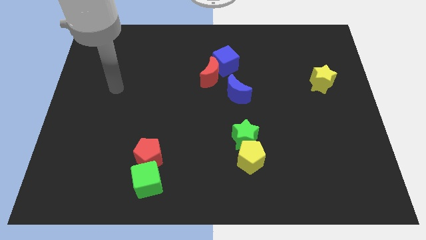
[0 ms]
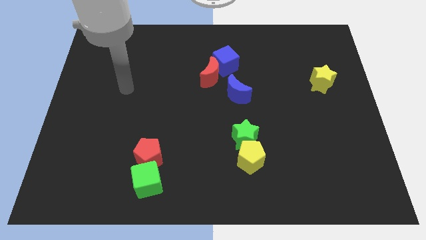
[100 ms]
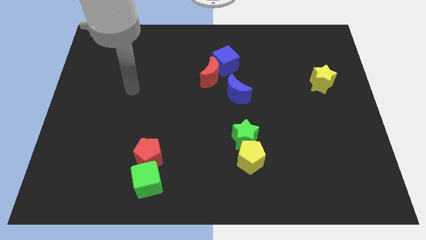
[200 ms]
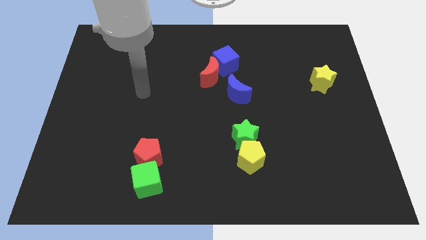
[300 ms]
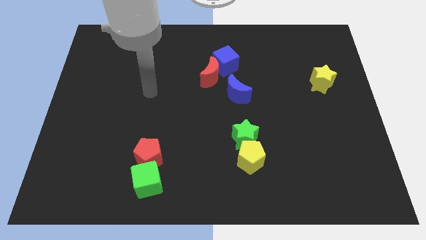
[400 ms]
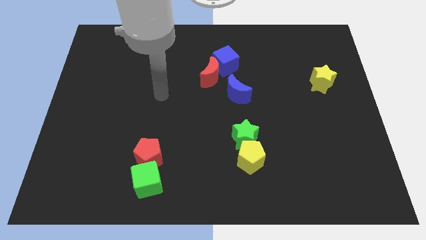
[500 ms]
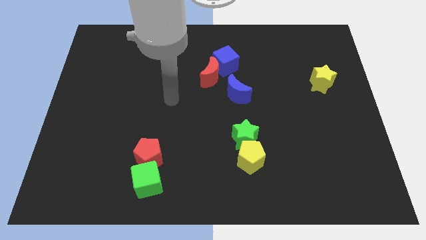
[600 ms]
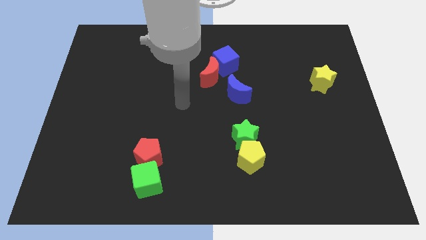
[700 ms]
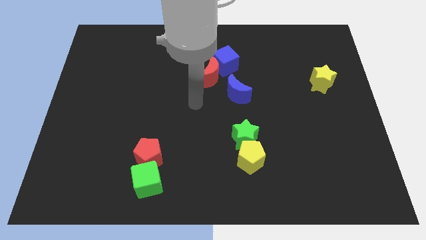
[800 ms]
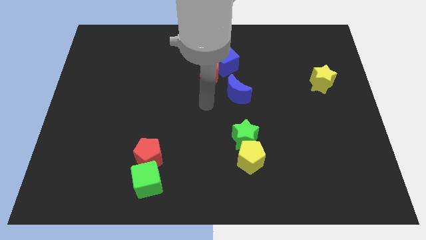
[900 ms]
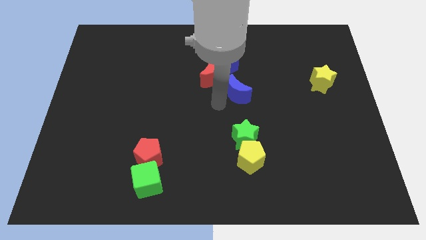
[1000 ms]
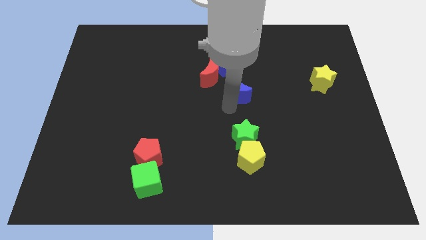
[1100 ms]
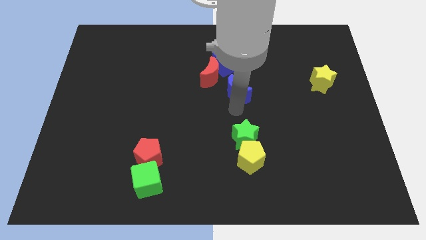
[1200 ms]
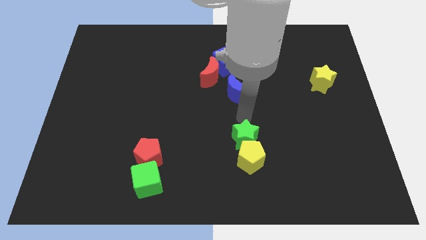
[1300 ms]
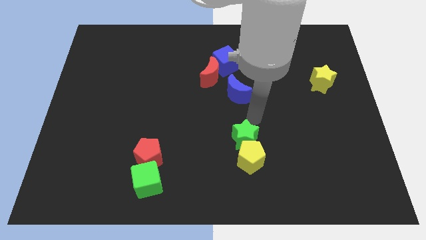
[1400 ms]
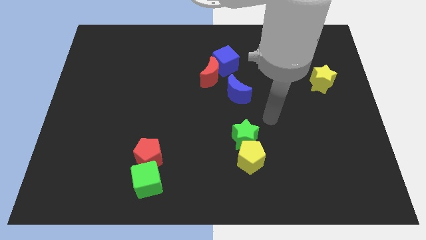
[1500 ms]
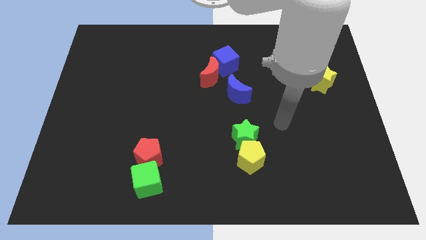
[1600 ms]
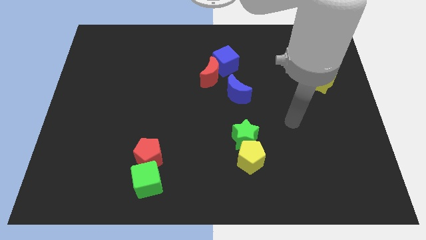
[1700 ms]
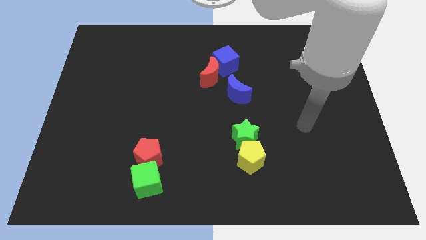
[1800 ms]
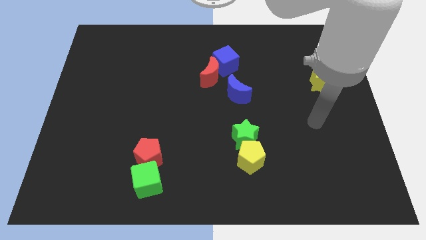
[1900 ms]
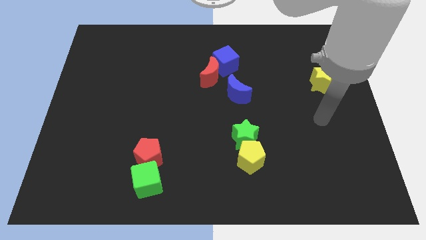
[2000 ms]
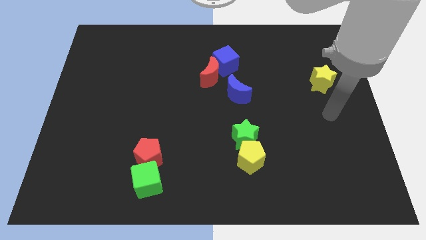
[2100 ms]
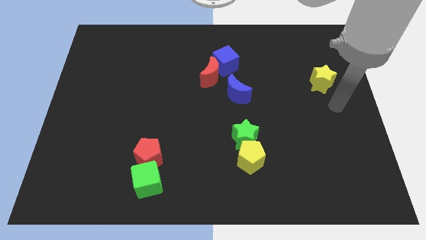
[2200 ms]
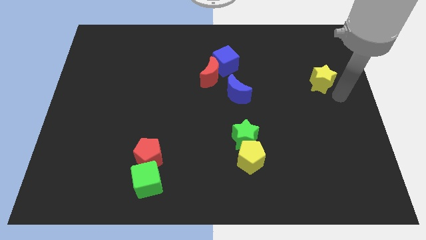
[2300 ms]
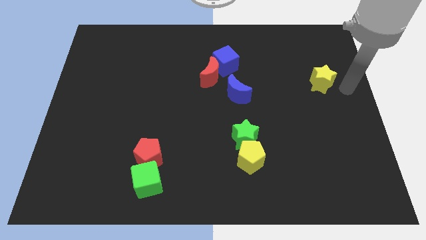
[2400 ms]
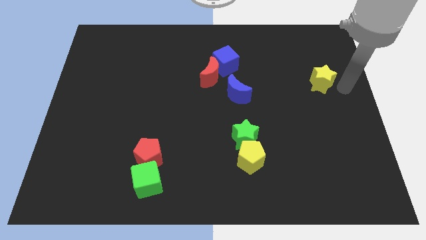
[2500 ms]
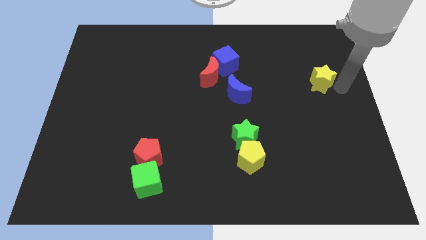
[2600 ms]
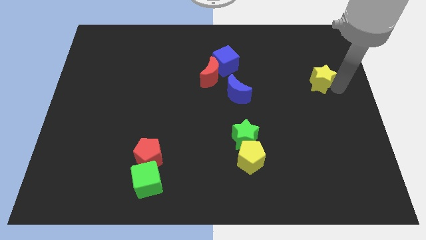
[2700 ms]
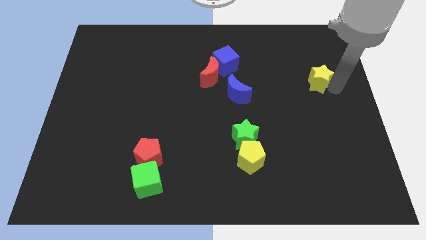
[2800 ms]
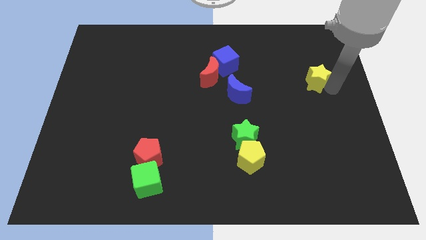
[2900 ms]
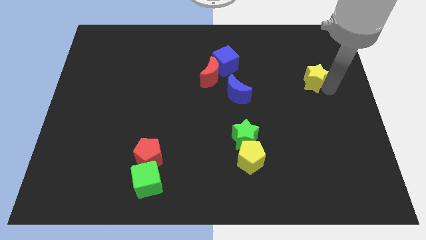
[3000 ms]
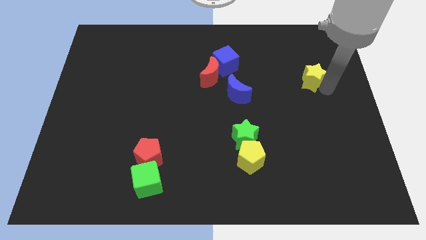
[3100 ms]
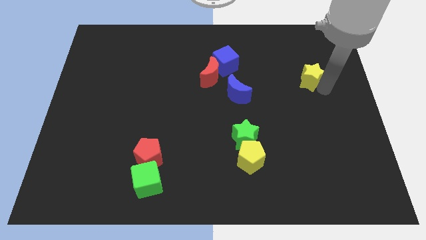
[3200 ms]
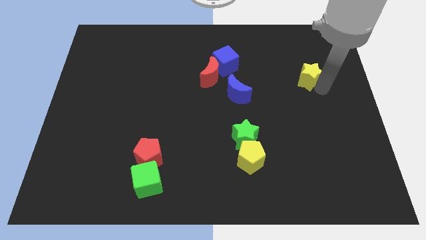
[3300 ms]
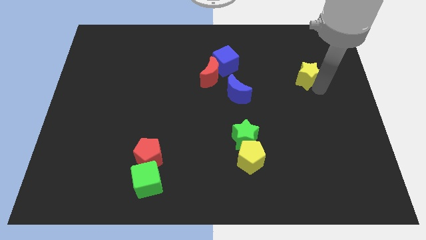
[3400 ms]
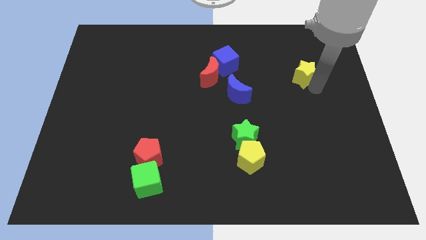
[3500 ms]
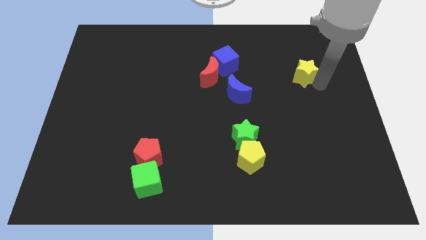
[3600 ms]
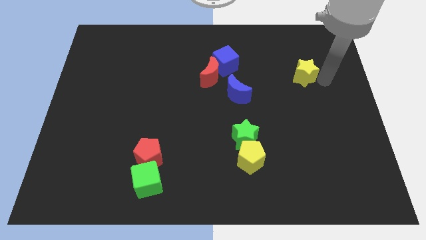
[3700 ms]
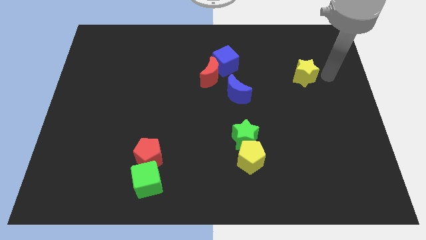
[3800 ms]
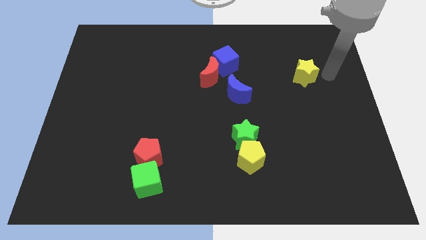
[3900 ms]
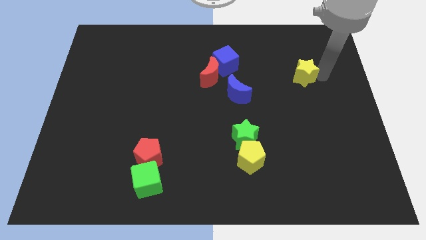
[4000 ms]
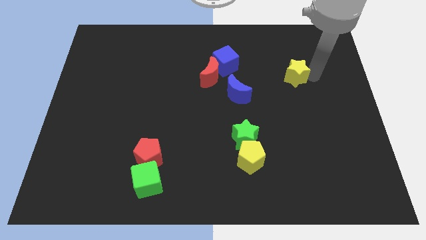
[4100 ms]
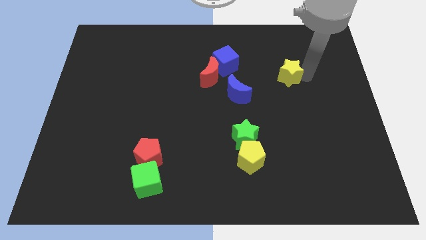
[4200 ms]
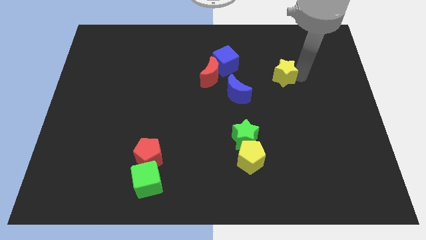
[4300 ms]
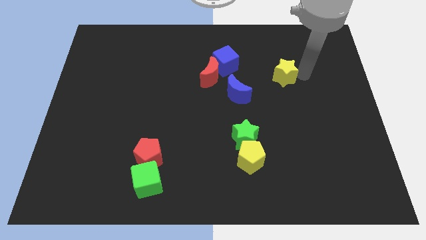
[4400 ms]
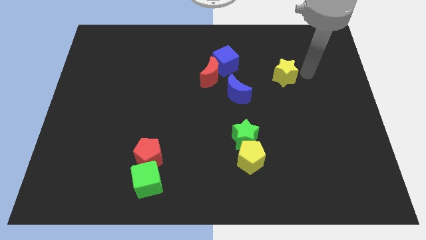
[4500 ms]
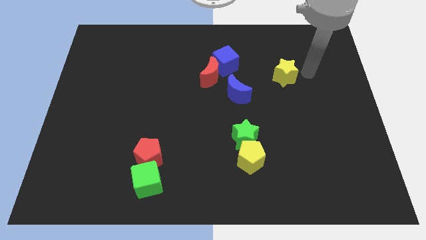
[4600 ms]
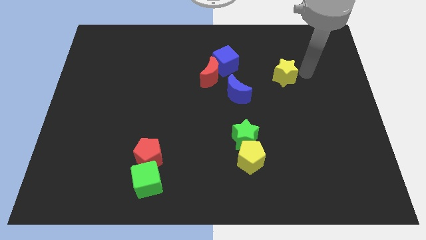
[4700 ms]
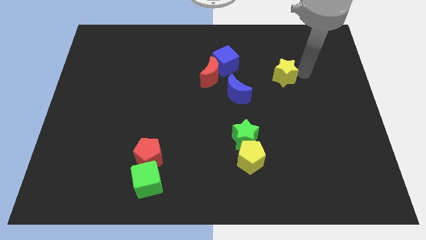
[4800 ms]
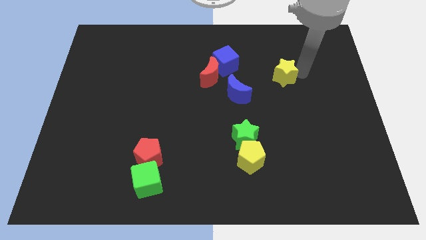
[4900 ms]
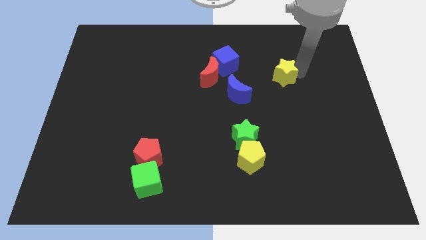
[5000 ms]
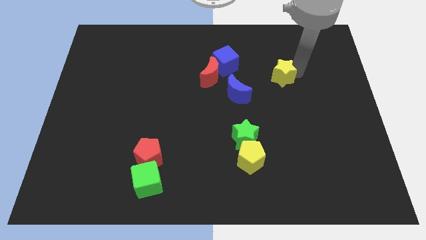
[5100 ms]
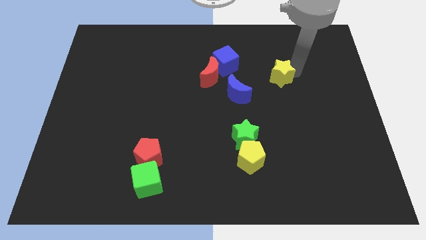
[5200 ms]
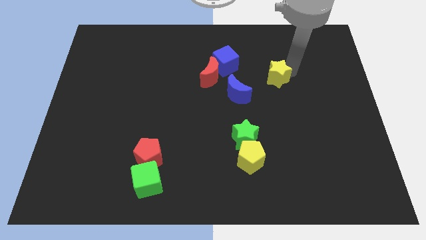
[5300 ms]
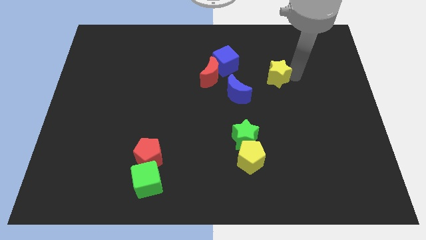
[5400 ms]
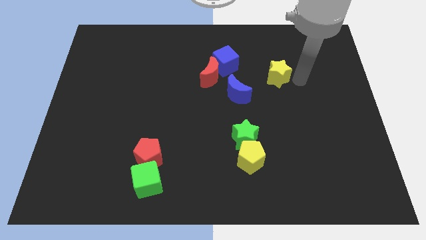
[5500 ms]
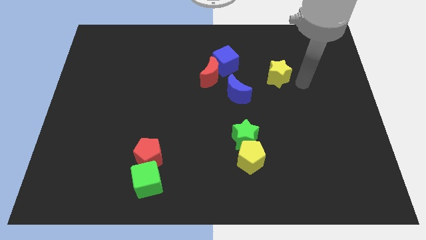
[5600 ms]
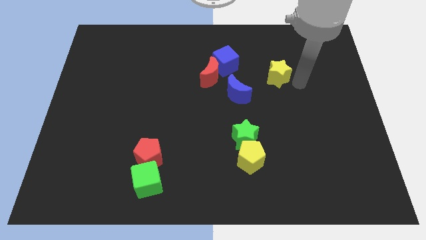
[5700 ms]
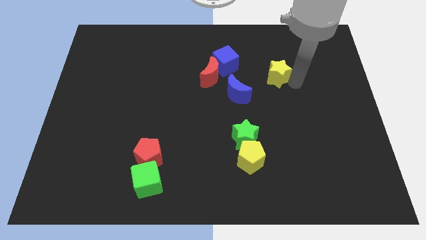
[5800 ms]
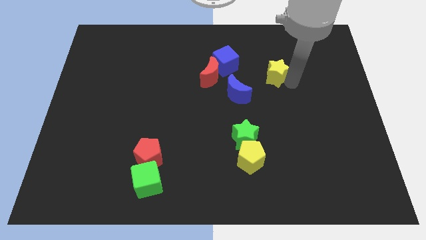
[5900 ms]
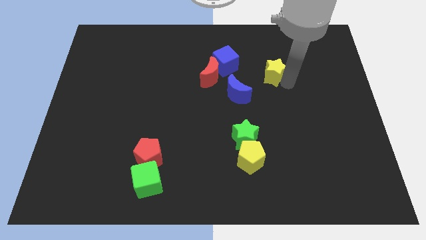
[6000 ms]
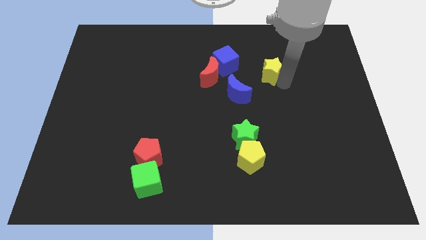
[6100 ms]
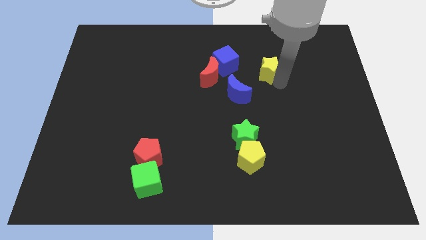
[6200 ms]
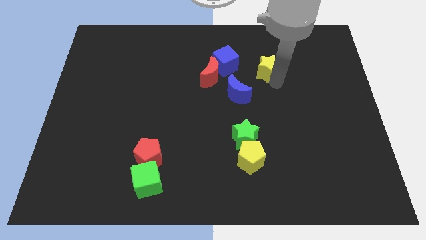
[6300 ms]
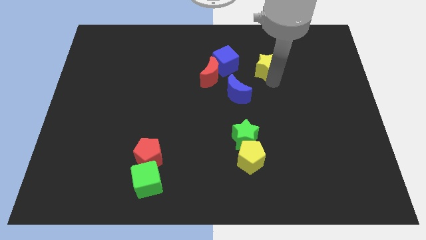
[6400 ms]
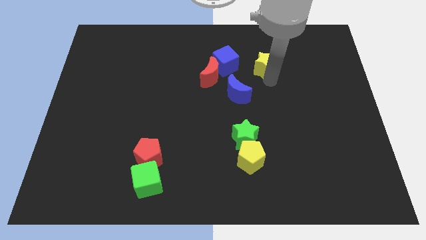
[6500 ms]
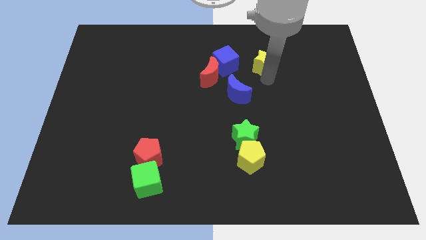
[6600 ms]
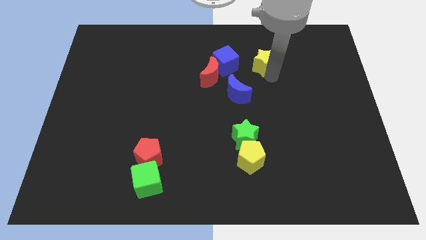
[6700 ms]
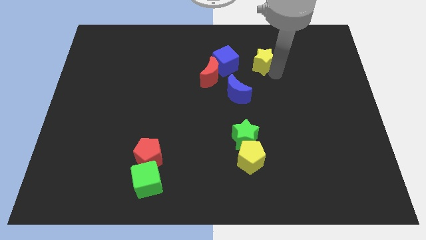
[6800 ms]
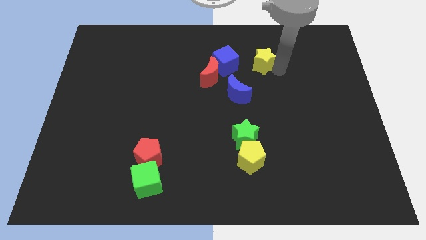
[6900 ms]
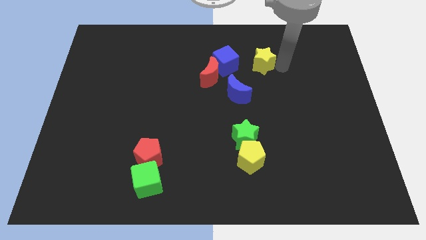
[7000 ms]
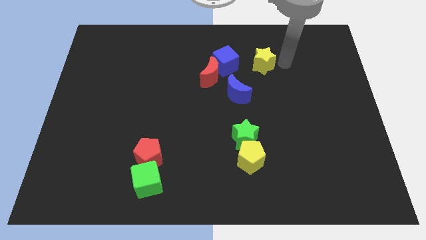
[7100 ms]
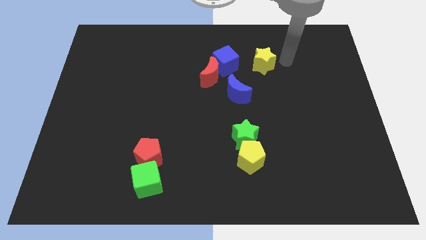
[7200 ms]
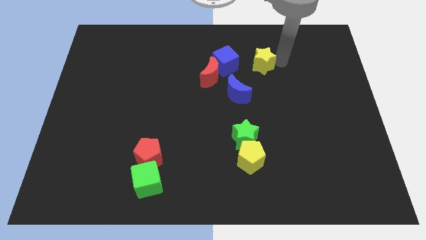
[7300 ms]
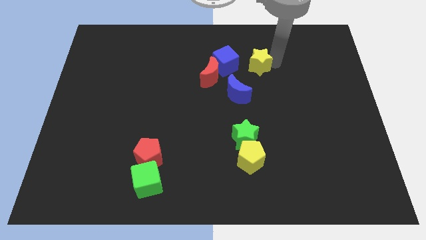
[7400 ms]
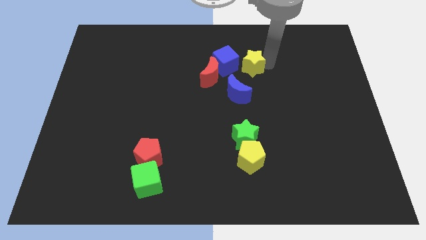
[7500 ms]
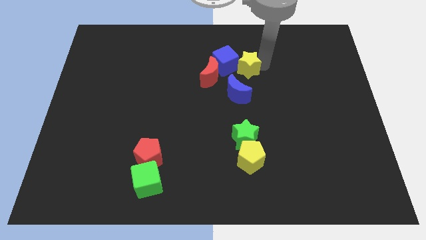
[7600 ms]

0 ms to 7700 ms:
put the yellow star next to the blue cube
